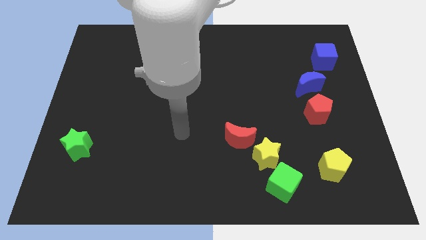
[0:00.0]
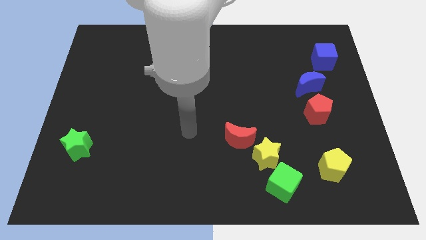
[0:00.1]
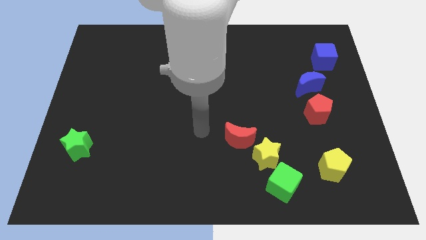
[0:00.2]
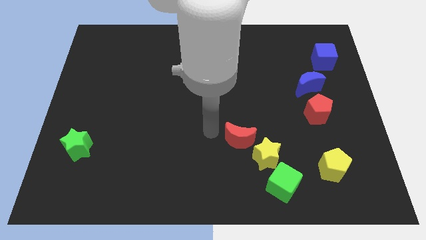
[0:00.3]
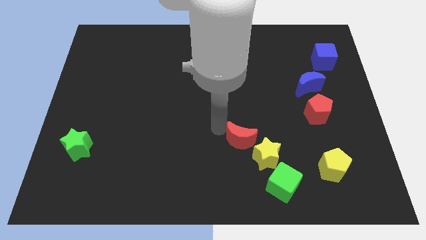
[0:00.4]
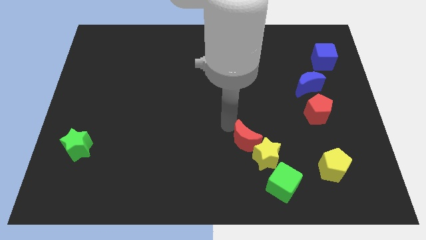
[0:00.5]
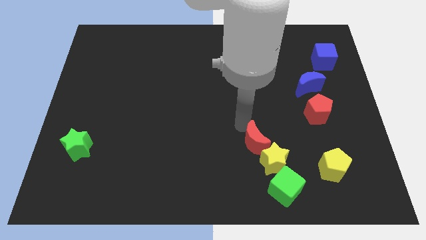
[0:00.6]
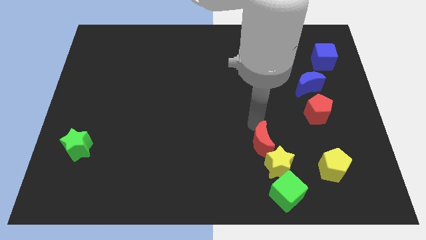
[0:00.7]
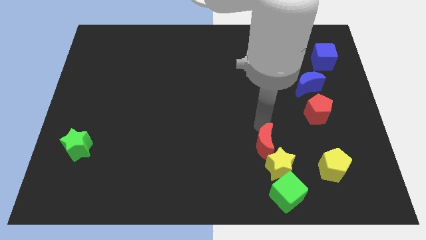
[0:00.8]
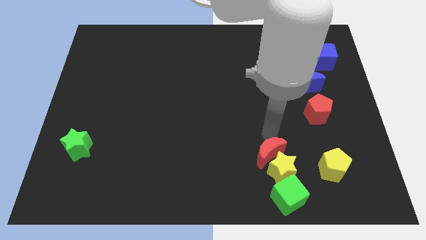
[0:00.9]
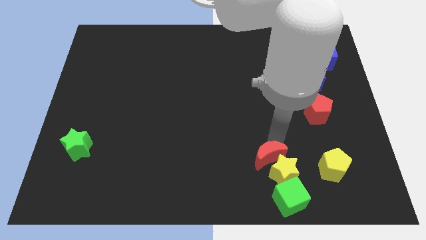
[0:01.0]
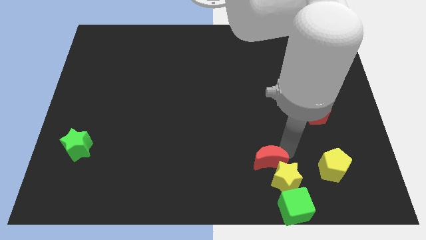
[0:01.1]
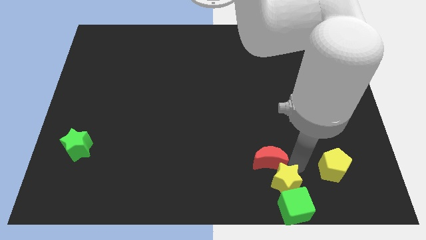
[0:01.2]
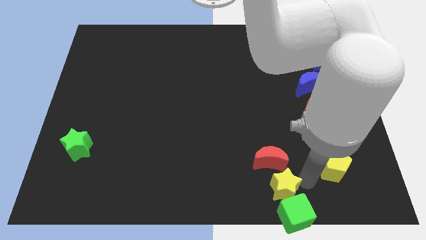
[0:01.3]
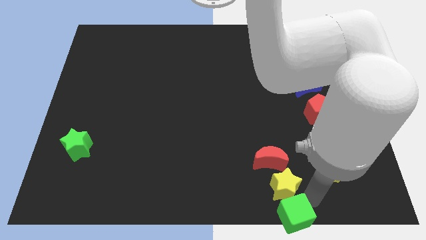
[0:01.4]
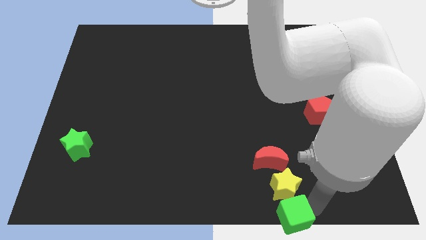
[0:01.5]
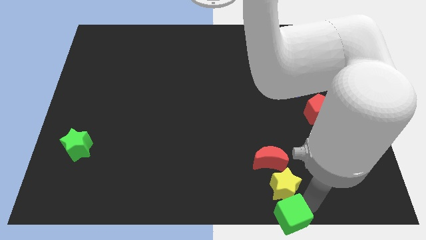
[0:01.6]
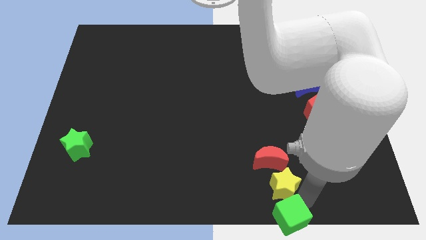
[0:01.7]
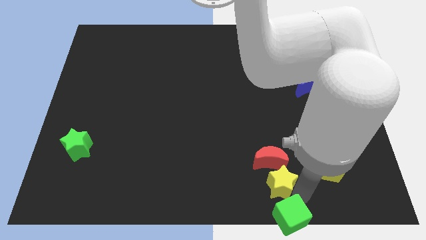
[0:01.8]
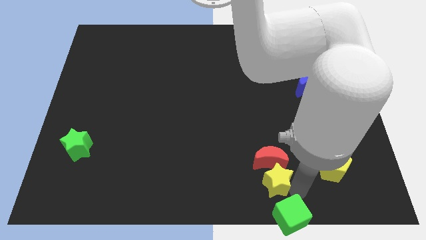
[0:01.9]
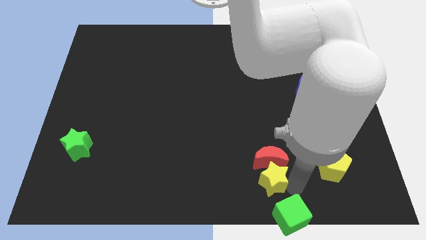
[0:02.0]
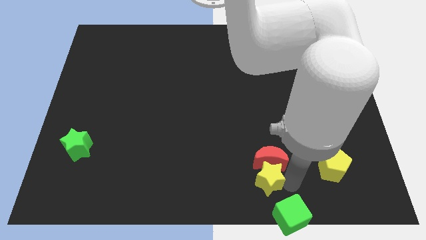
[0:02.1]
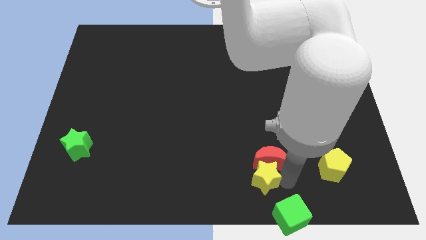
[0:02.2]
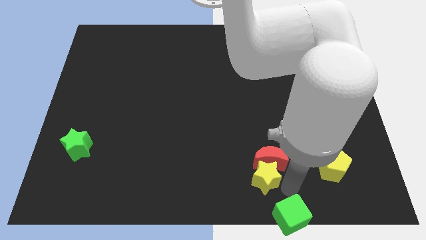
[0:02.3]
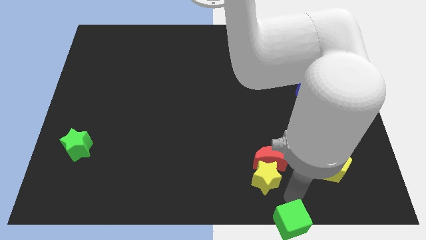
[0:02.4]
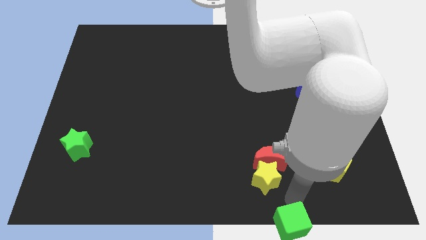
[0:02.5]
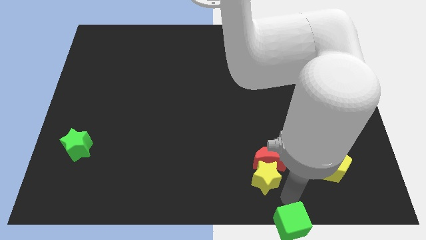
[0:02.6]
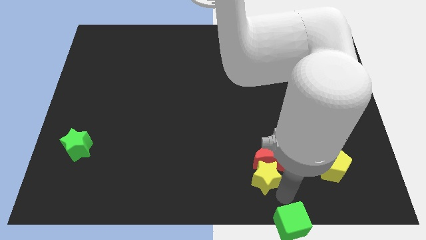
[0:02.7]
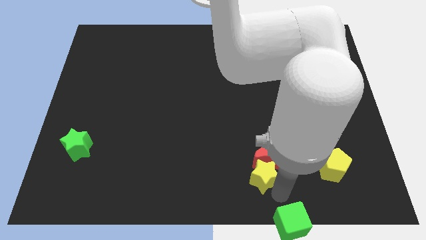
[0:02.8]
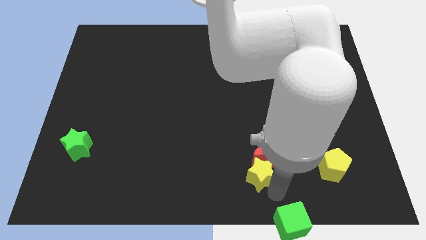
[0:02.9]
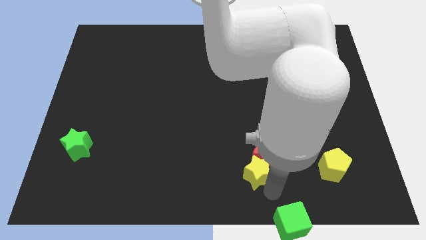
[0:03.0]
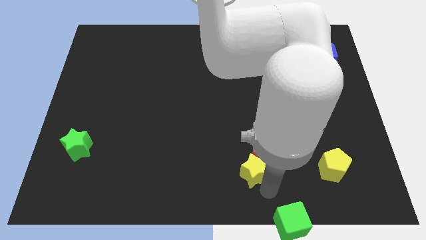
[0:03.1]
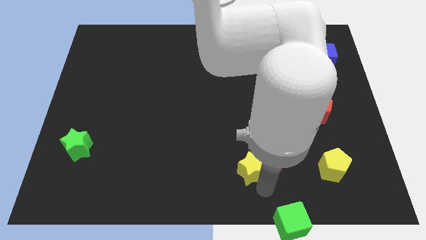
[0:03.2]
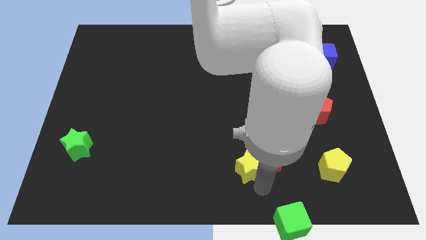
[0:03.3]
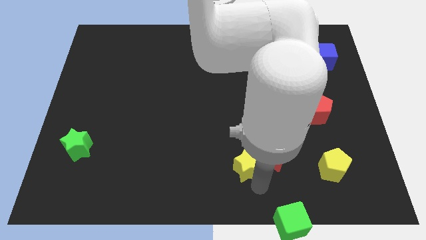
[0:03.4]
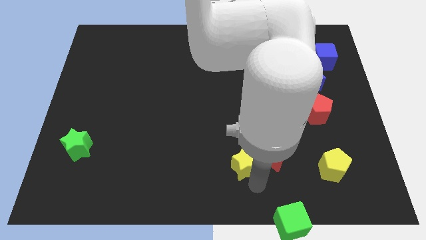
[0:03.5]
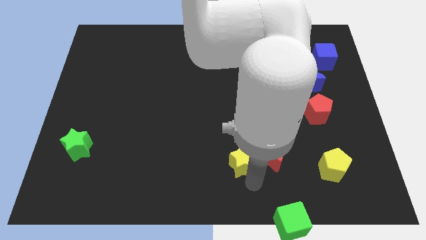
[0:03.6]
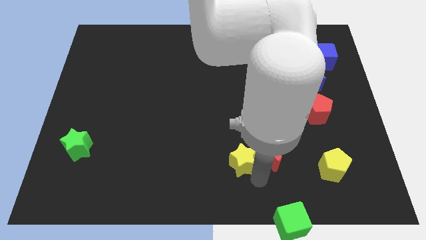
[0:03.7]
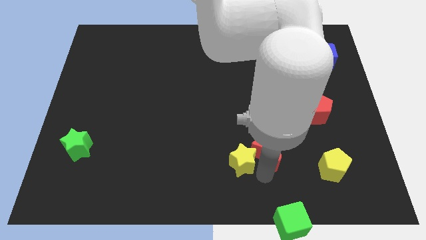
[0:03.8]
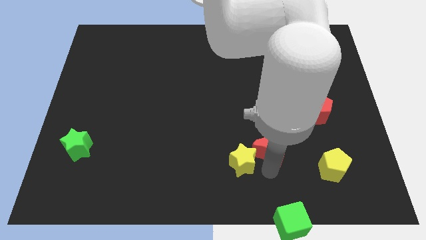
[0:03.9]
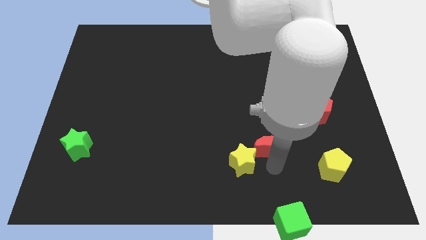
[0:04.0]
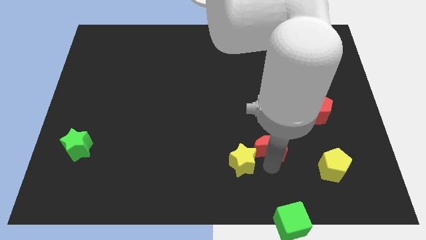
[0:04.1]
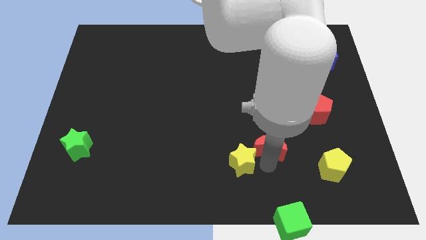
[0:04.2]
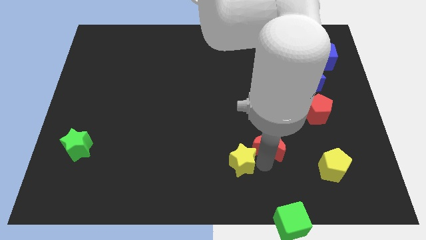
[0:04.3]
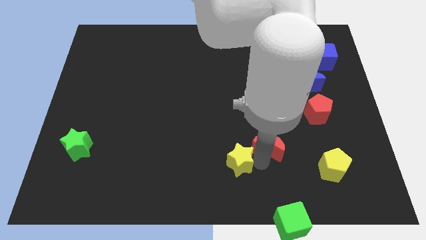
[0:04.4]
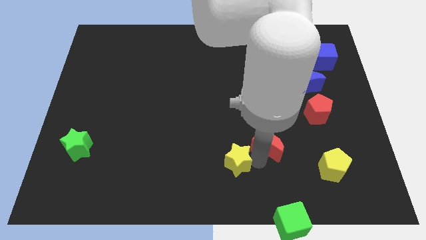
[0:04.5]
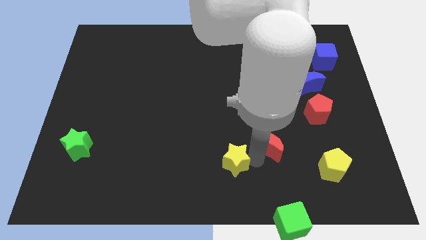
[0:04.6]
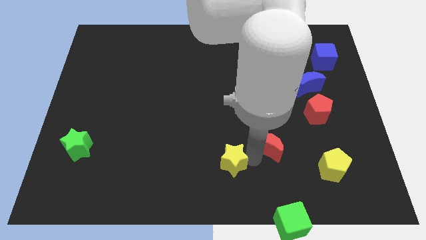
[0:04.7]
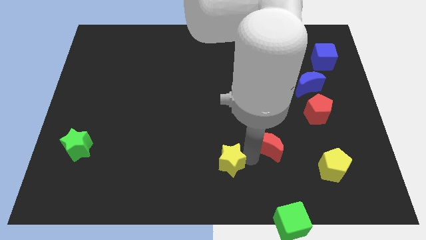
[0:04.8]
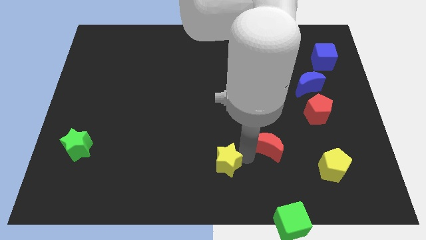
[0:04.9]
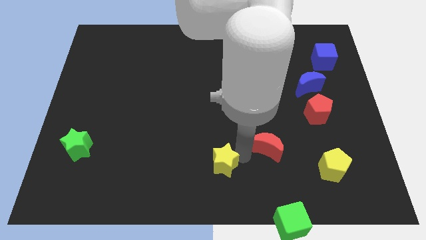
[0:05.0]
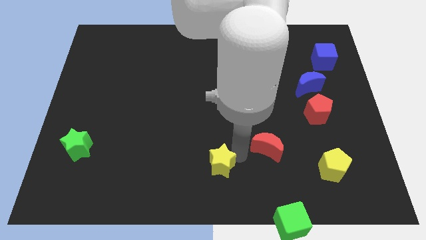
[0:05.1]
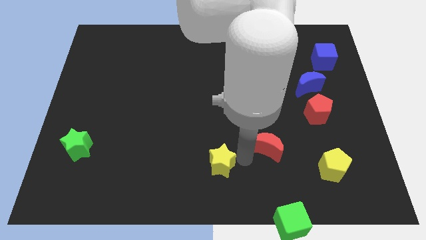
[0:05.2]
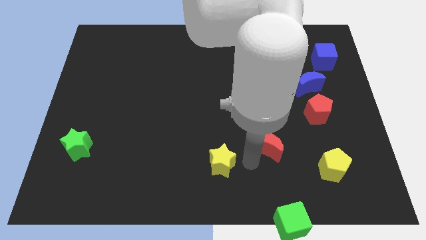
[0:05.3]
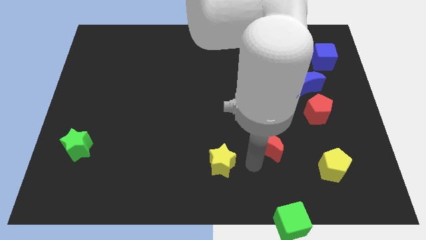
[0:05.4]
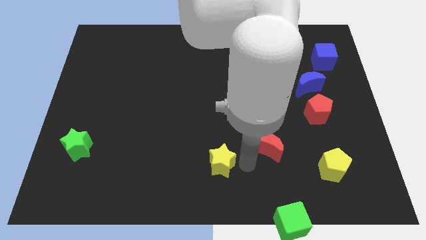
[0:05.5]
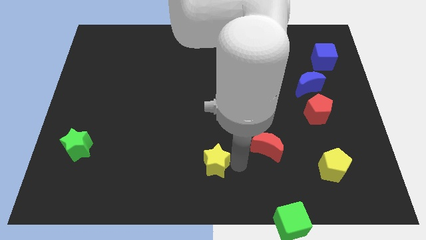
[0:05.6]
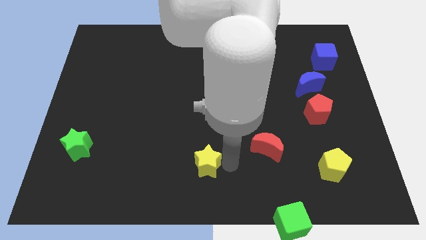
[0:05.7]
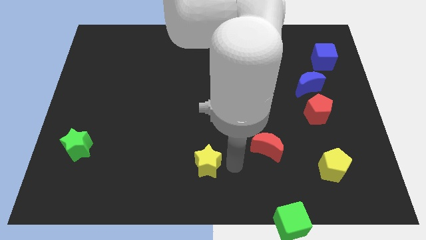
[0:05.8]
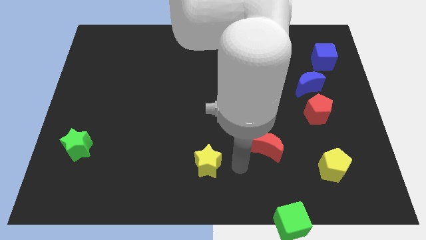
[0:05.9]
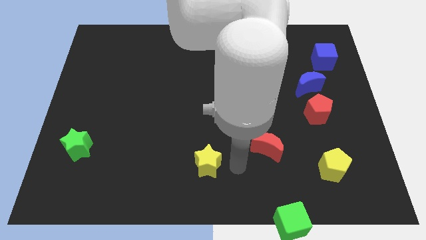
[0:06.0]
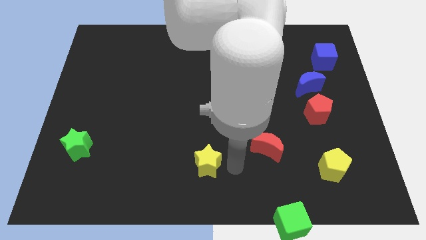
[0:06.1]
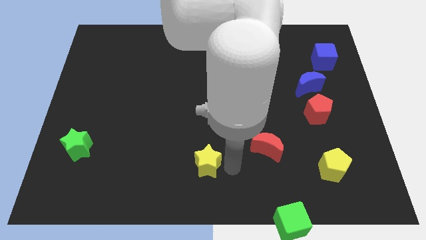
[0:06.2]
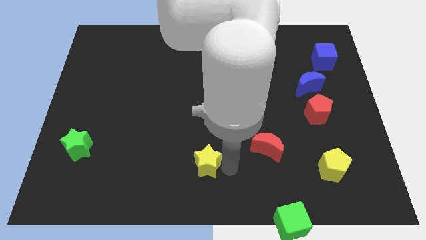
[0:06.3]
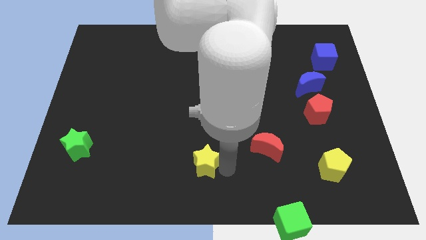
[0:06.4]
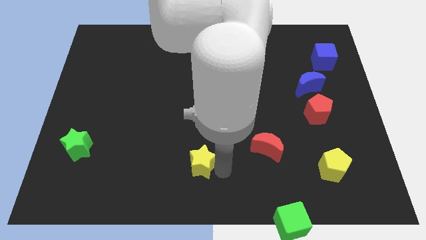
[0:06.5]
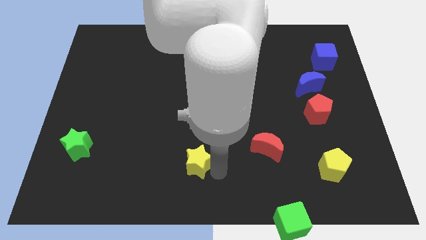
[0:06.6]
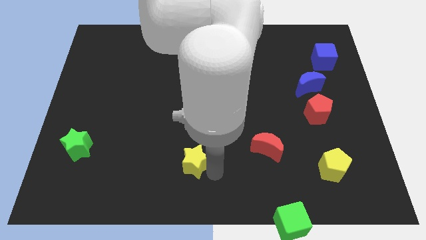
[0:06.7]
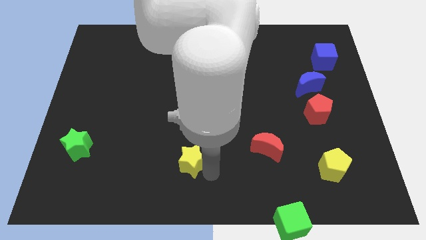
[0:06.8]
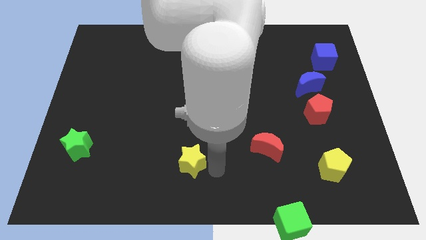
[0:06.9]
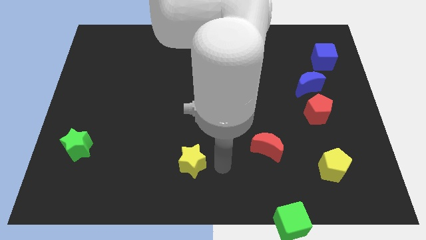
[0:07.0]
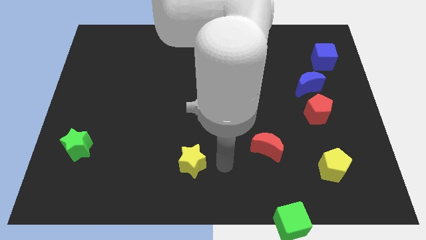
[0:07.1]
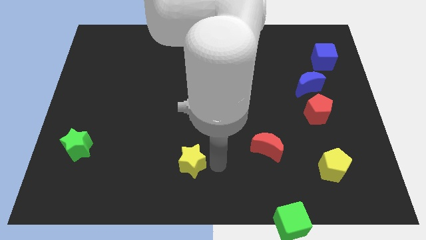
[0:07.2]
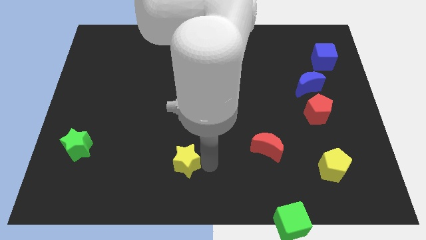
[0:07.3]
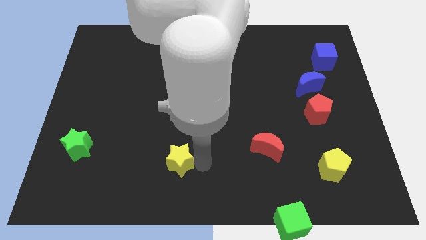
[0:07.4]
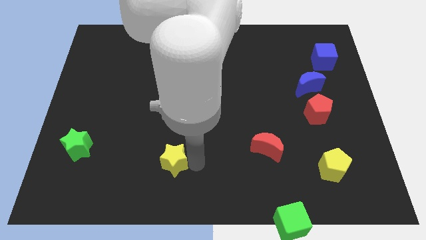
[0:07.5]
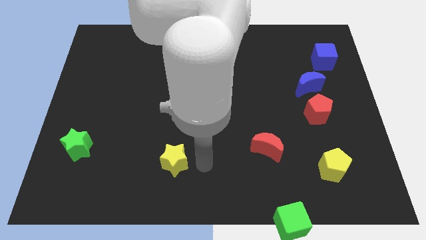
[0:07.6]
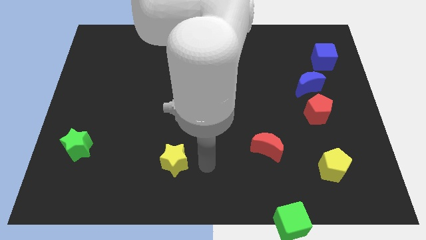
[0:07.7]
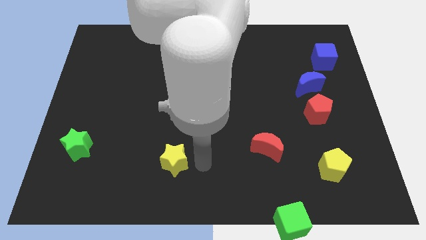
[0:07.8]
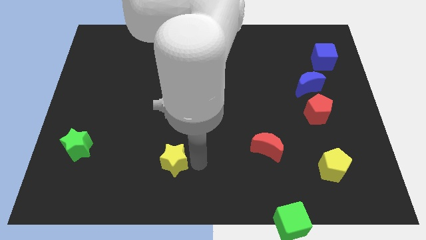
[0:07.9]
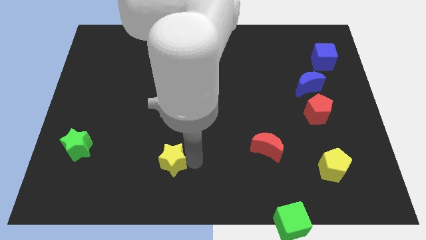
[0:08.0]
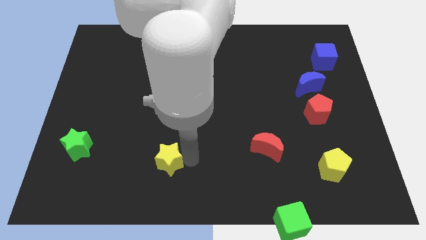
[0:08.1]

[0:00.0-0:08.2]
slide the yellow star to the left
